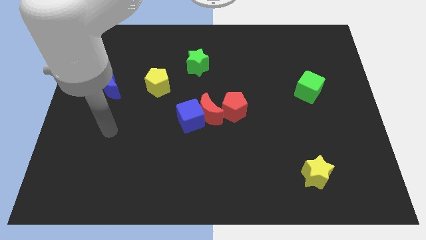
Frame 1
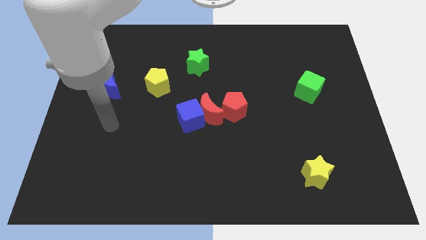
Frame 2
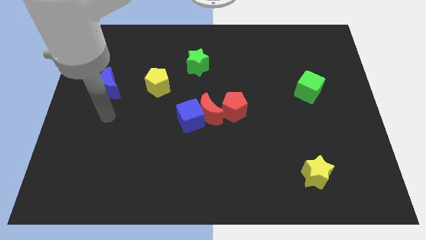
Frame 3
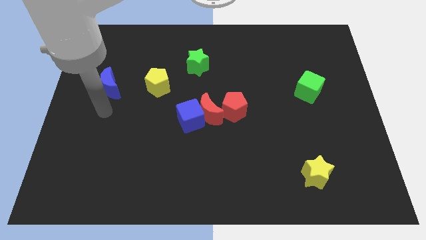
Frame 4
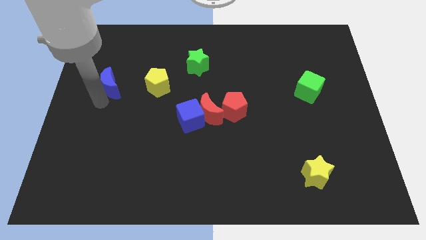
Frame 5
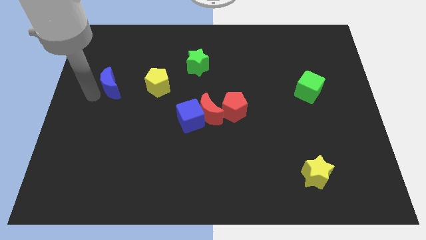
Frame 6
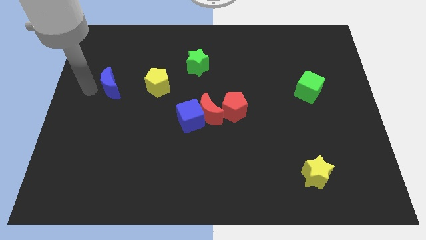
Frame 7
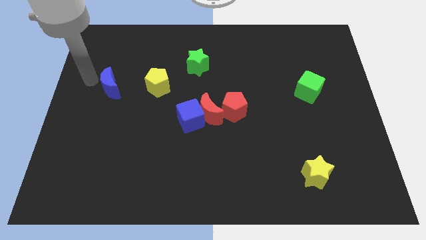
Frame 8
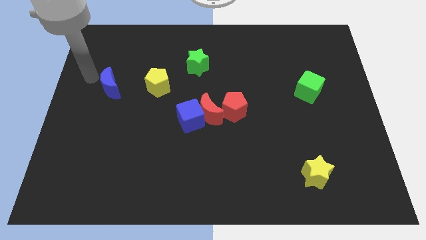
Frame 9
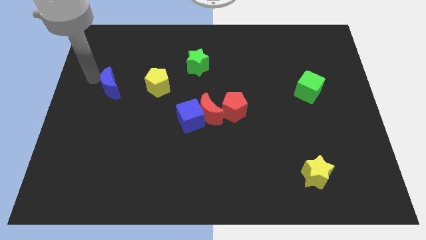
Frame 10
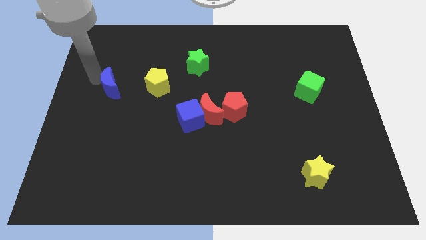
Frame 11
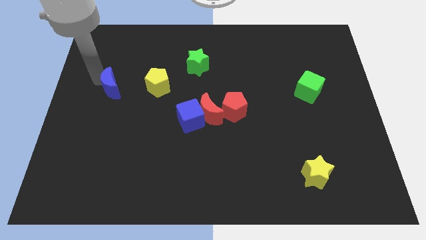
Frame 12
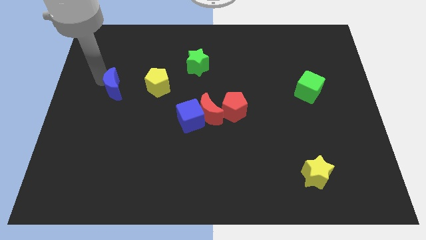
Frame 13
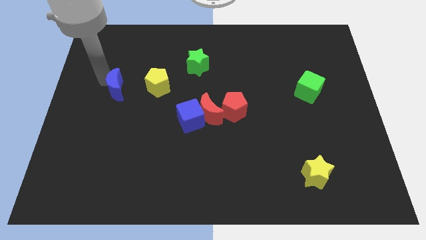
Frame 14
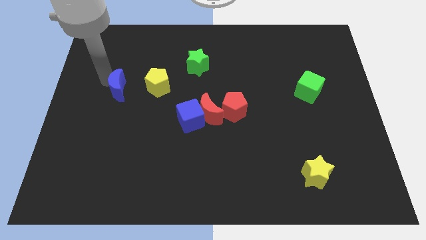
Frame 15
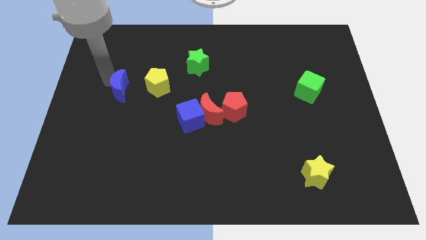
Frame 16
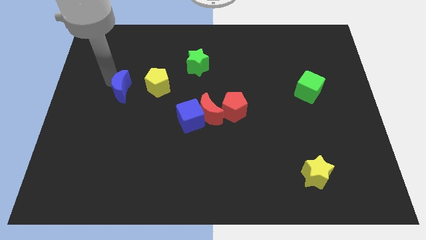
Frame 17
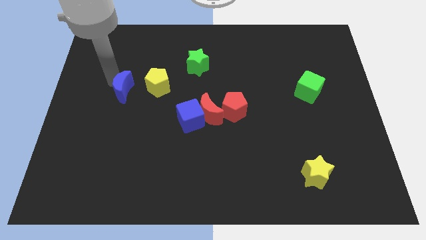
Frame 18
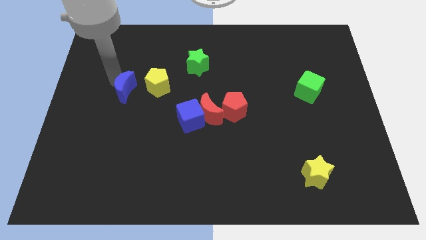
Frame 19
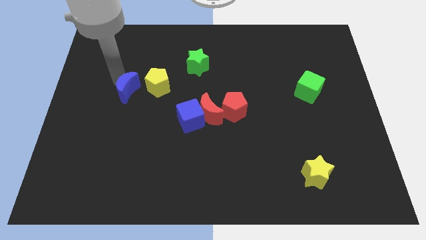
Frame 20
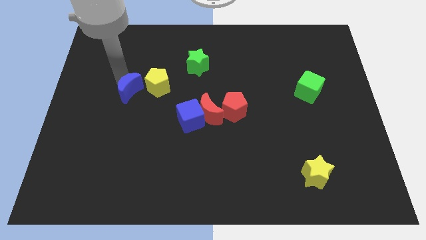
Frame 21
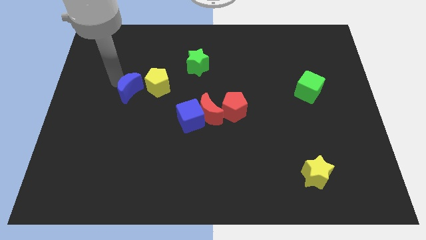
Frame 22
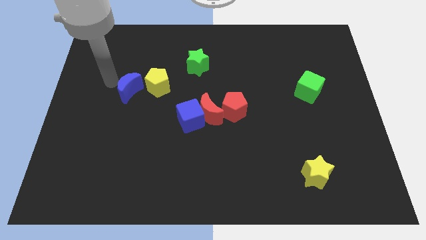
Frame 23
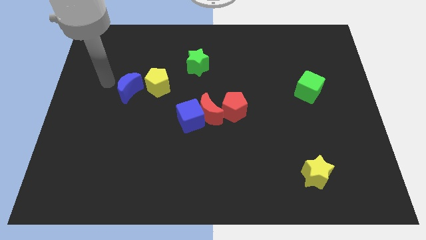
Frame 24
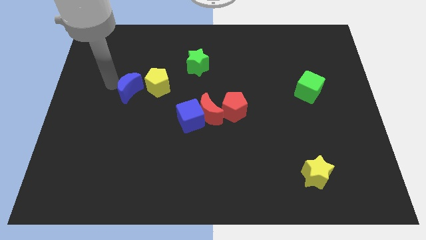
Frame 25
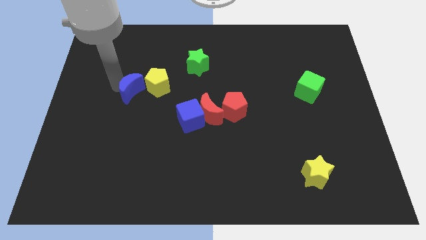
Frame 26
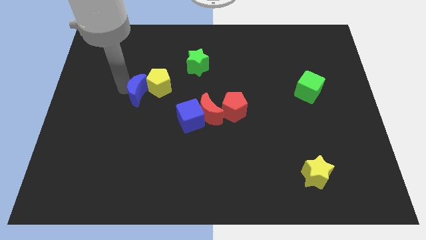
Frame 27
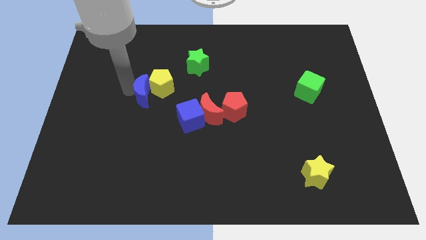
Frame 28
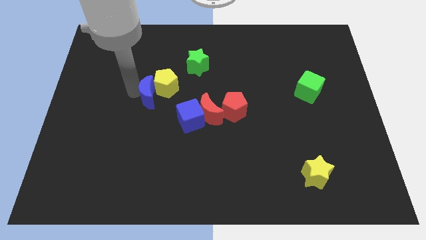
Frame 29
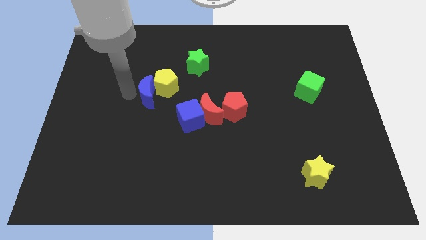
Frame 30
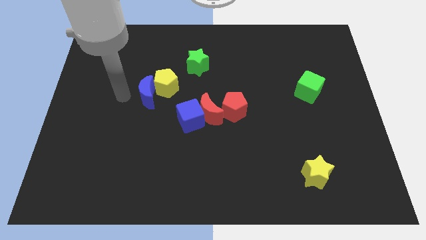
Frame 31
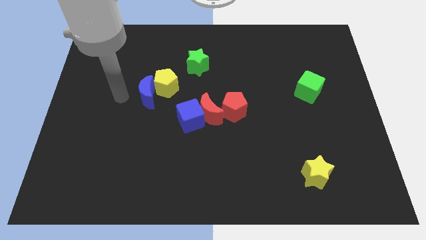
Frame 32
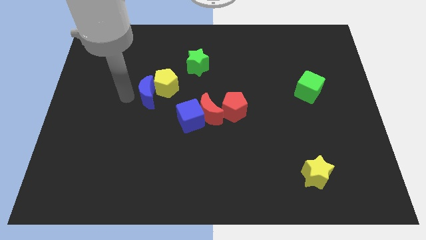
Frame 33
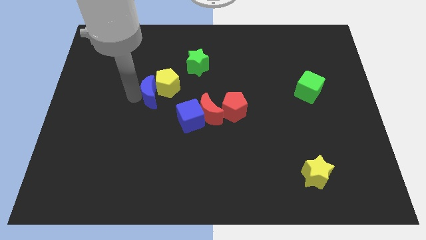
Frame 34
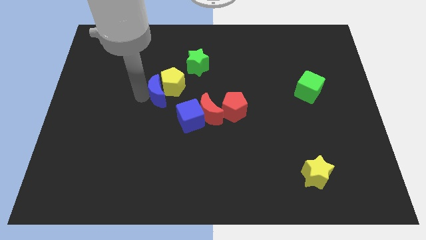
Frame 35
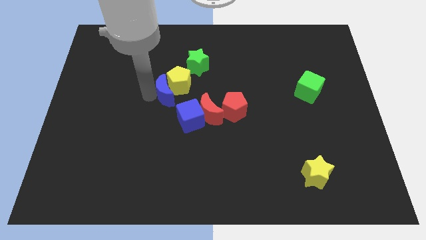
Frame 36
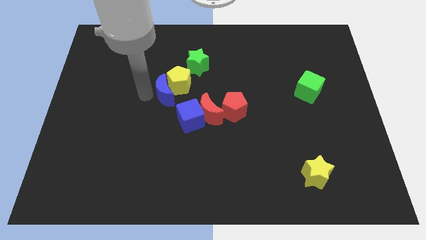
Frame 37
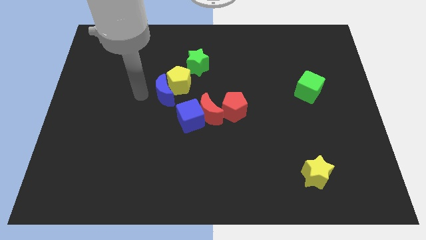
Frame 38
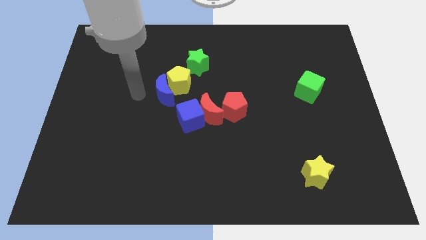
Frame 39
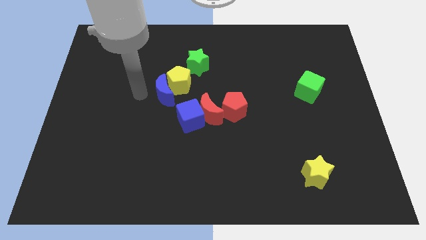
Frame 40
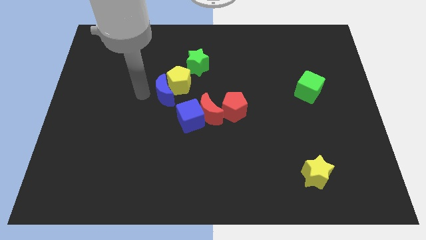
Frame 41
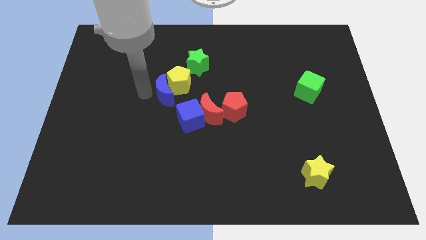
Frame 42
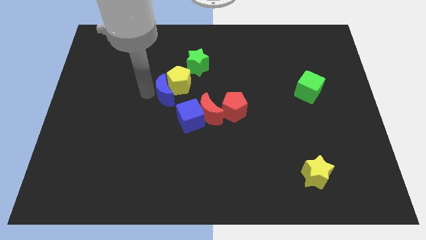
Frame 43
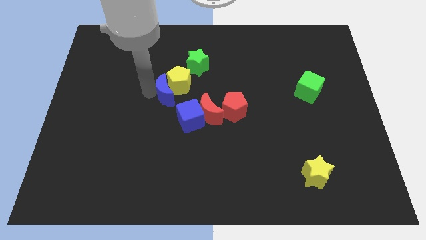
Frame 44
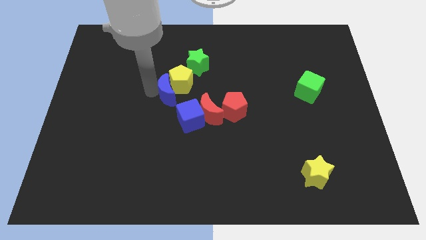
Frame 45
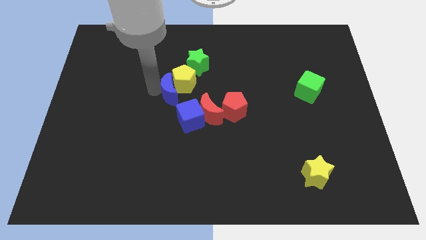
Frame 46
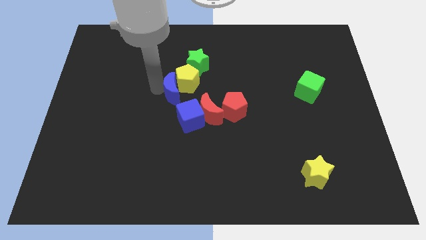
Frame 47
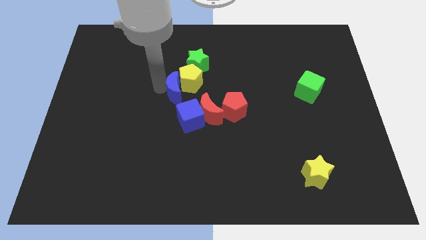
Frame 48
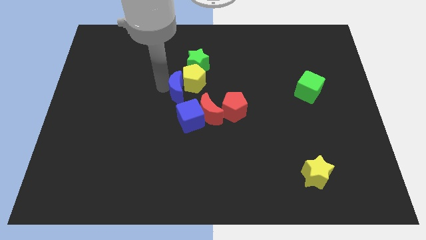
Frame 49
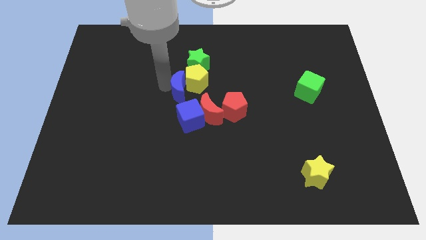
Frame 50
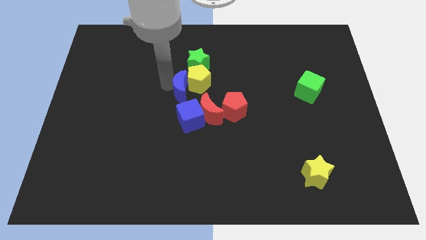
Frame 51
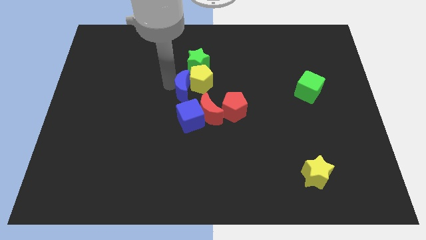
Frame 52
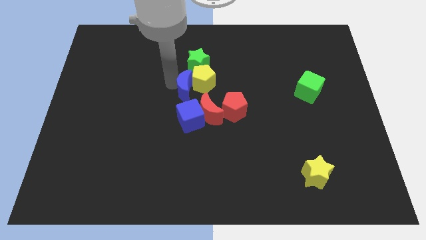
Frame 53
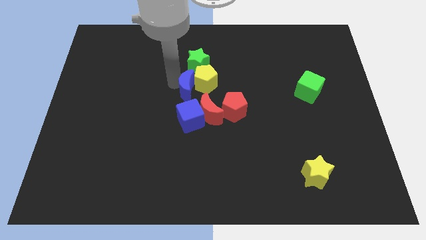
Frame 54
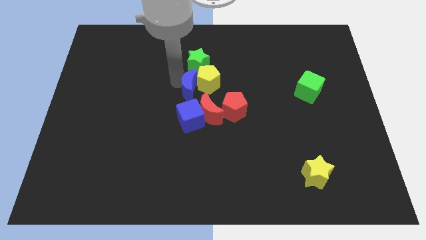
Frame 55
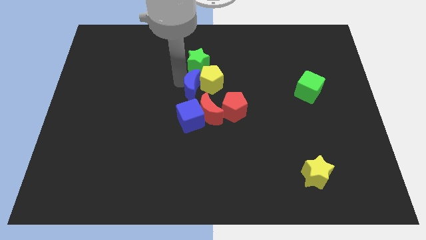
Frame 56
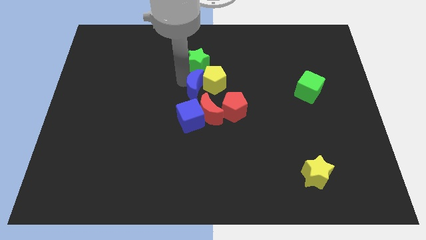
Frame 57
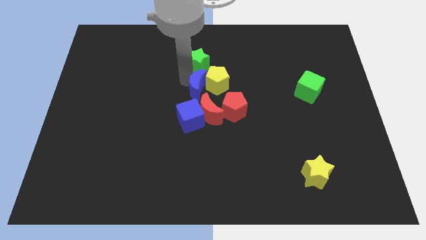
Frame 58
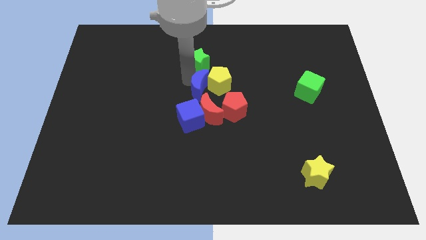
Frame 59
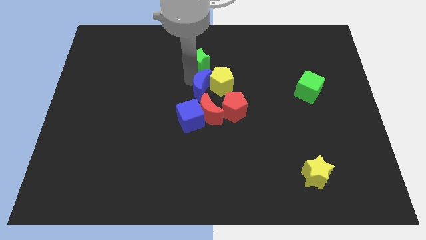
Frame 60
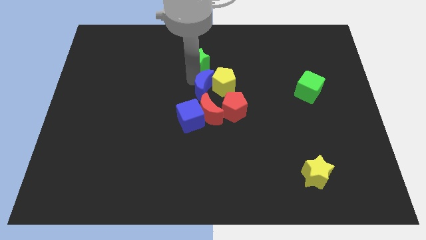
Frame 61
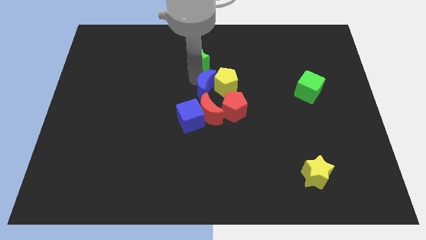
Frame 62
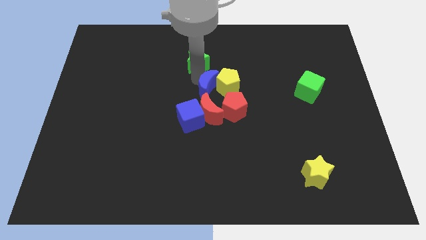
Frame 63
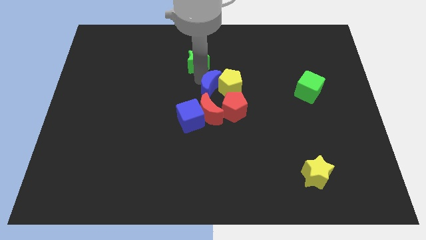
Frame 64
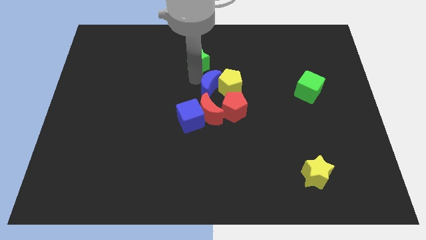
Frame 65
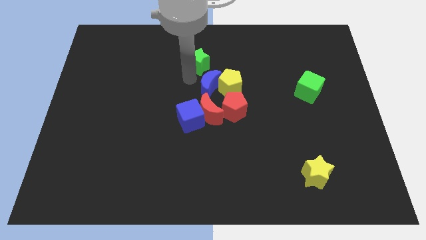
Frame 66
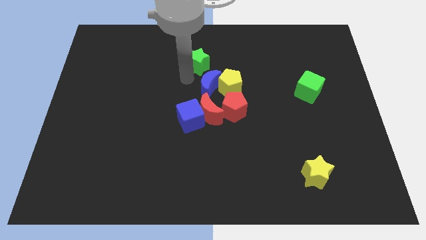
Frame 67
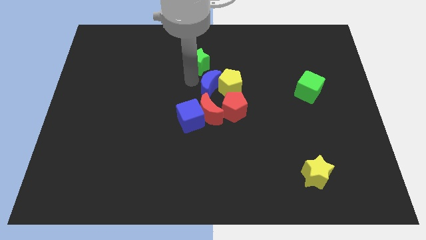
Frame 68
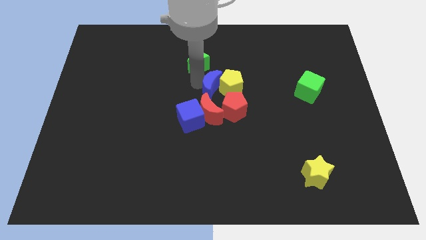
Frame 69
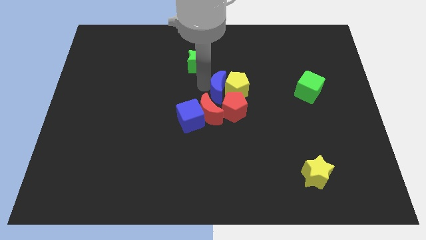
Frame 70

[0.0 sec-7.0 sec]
slide the blue moon to the top right of the red moon

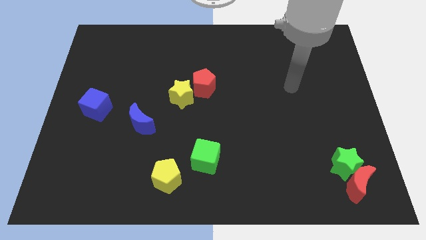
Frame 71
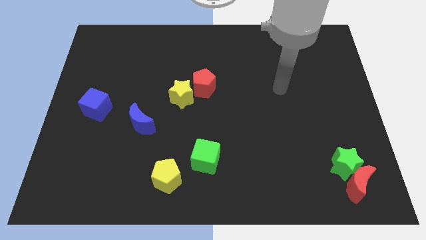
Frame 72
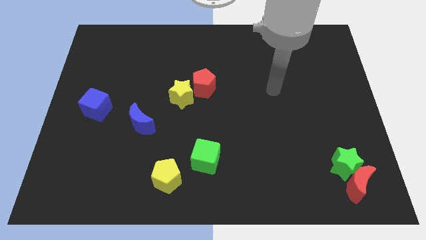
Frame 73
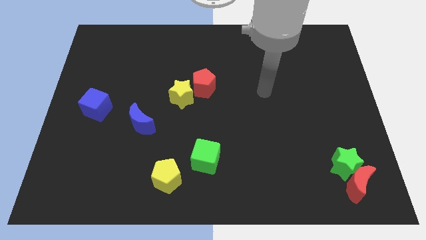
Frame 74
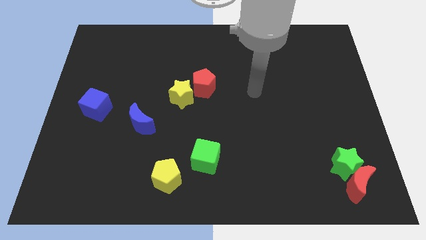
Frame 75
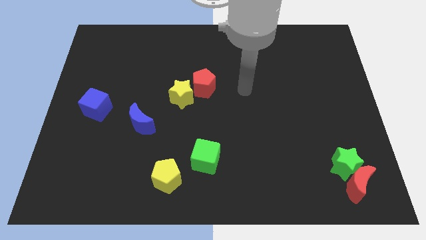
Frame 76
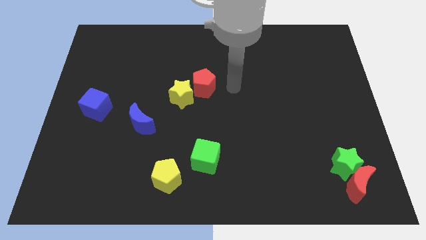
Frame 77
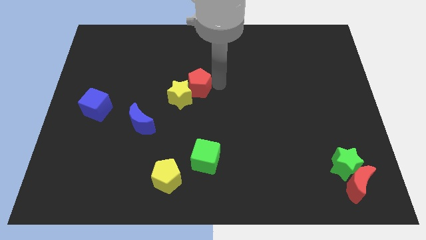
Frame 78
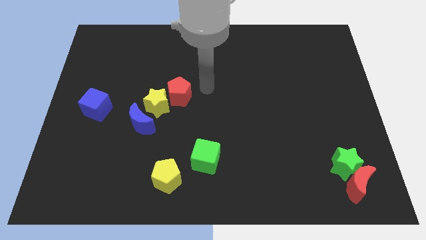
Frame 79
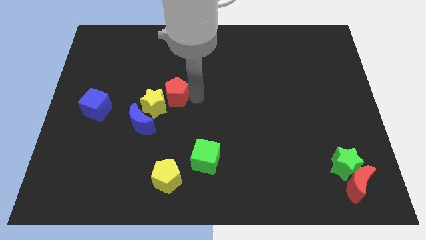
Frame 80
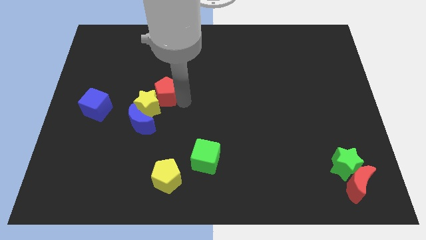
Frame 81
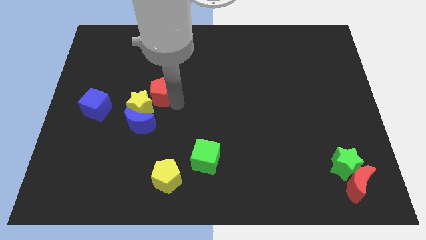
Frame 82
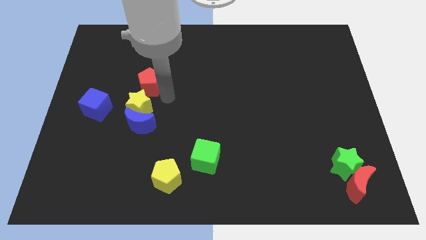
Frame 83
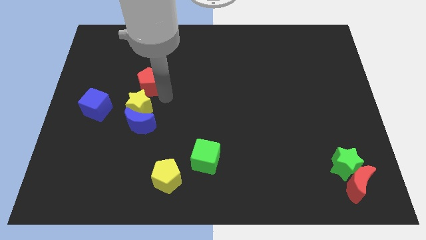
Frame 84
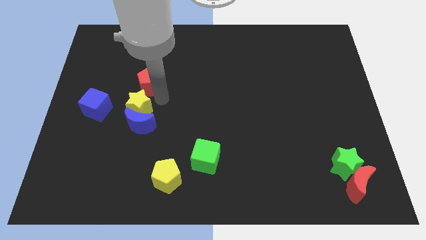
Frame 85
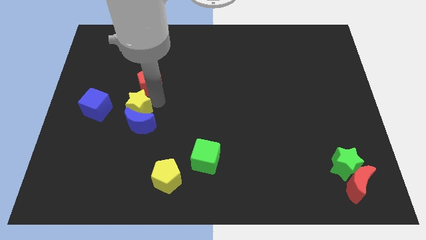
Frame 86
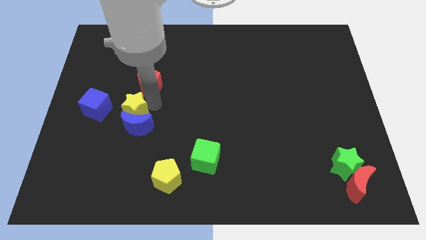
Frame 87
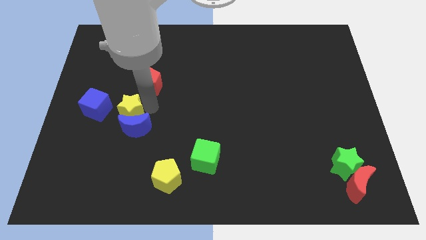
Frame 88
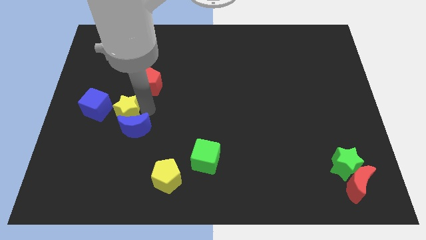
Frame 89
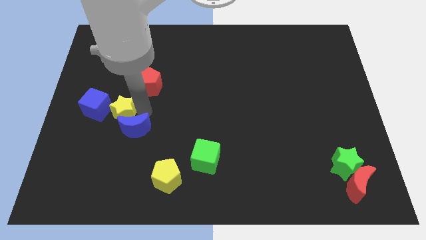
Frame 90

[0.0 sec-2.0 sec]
push the yellow star to the left of the blue moon
